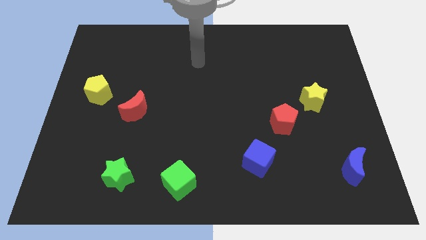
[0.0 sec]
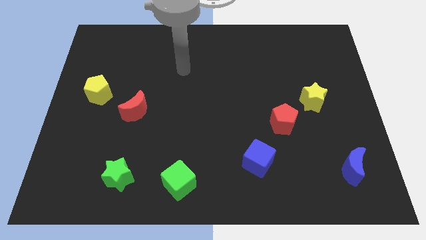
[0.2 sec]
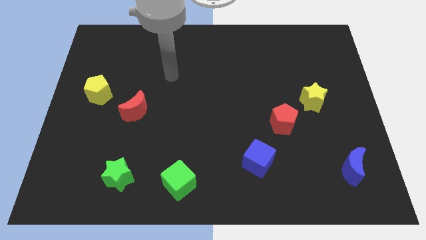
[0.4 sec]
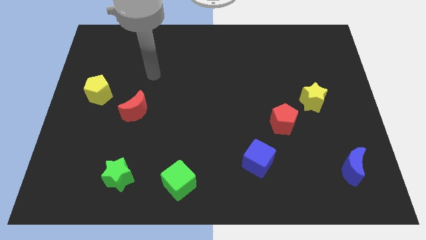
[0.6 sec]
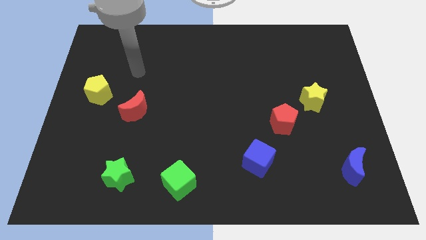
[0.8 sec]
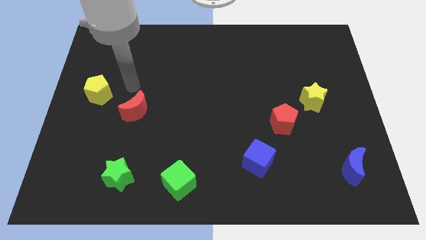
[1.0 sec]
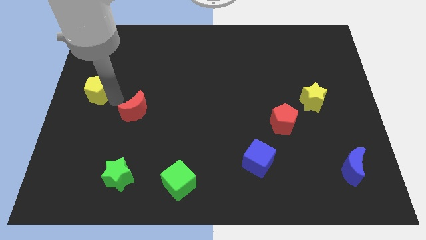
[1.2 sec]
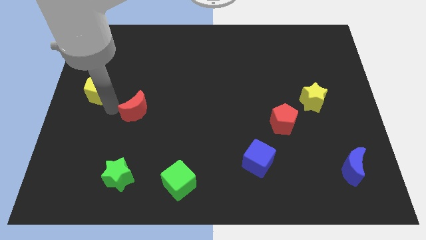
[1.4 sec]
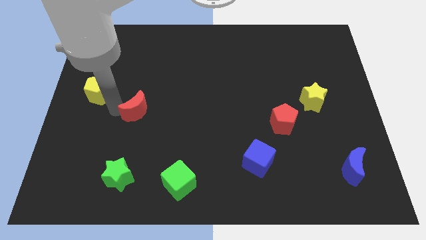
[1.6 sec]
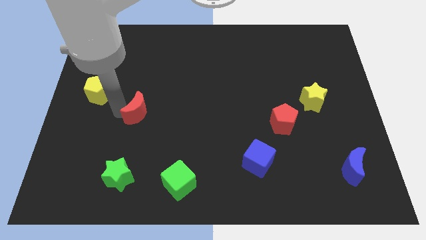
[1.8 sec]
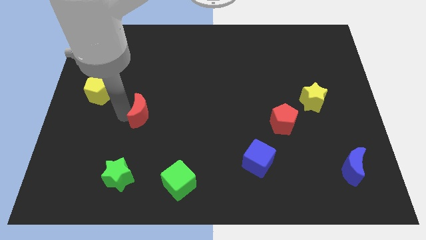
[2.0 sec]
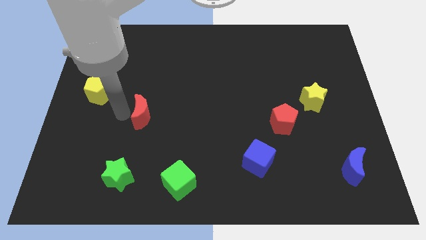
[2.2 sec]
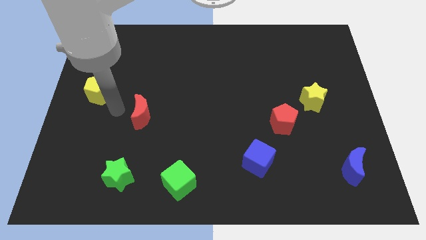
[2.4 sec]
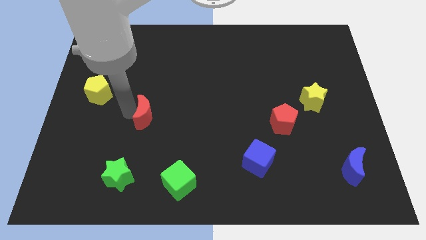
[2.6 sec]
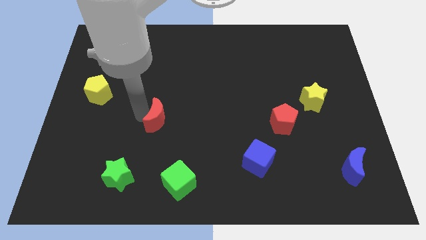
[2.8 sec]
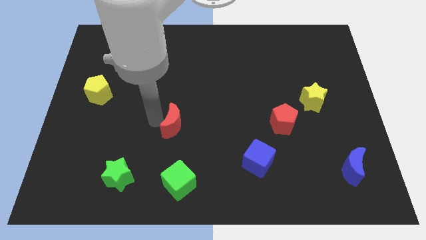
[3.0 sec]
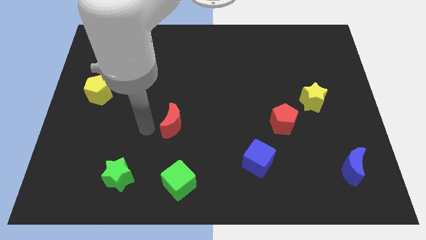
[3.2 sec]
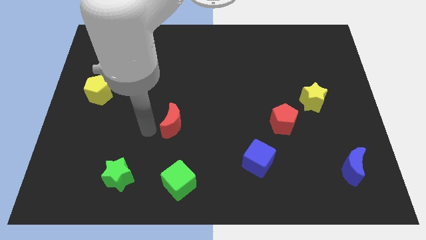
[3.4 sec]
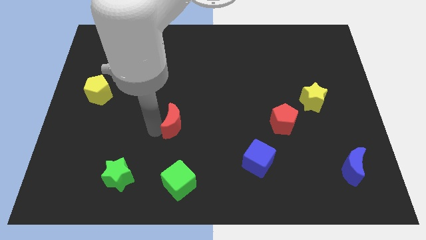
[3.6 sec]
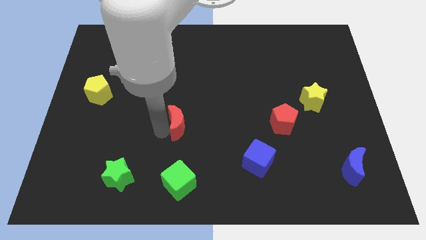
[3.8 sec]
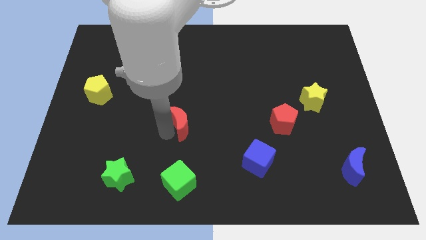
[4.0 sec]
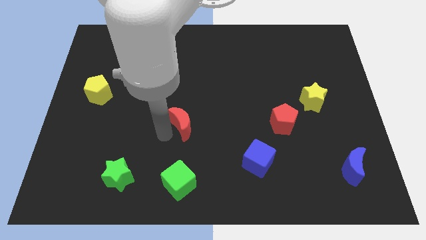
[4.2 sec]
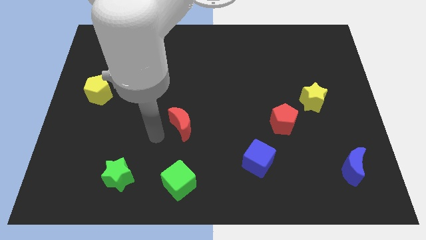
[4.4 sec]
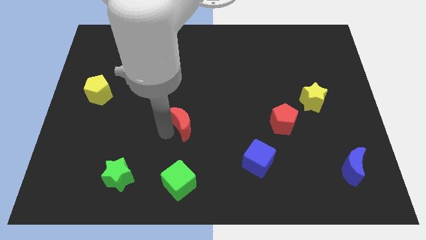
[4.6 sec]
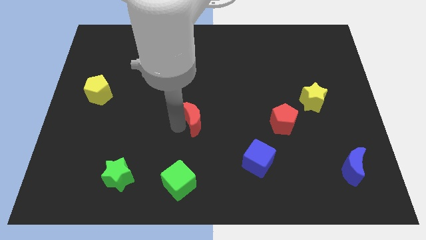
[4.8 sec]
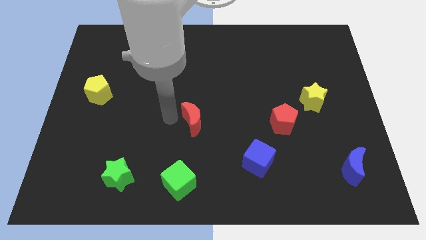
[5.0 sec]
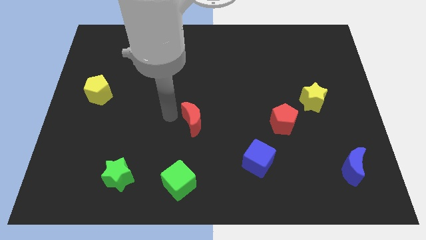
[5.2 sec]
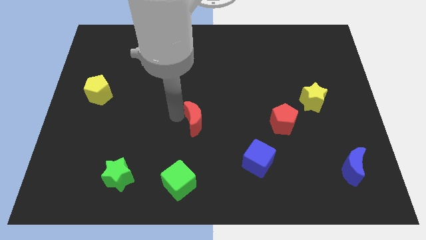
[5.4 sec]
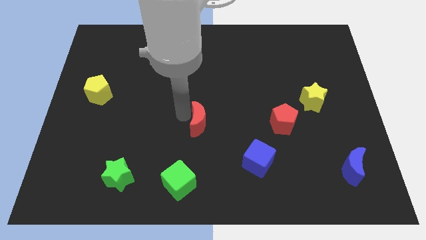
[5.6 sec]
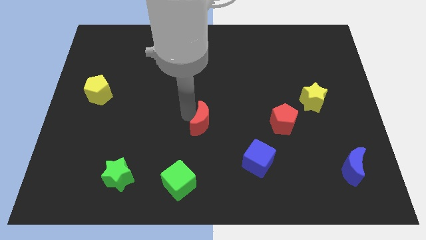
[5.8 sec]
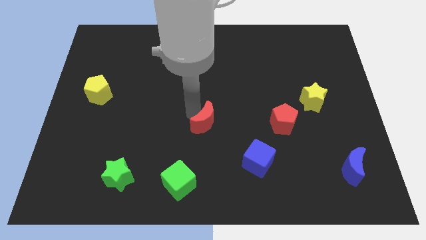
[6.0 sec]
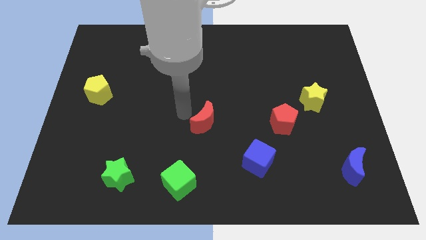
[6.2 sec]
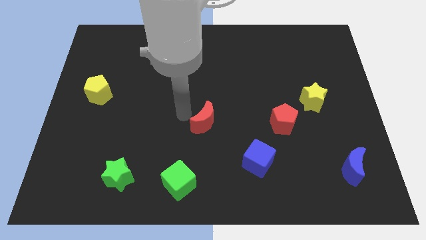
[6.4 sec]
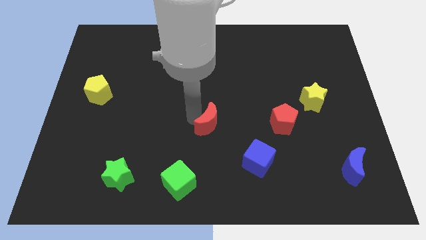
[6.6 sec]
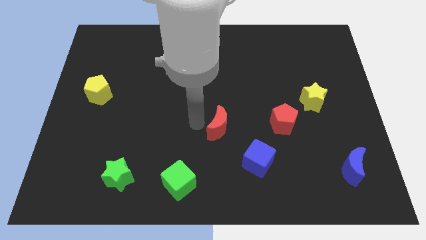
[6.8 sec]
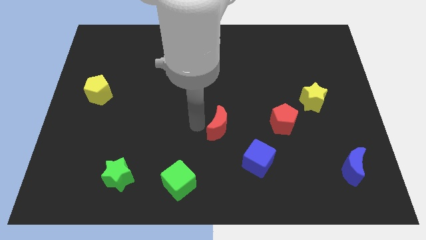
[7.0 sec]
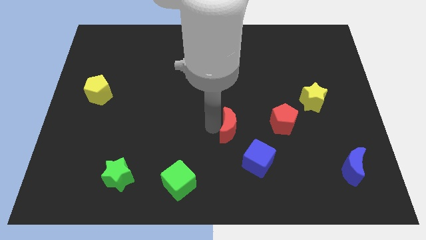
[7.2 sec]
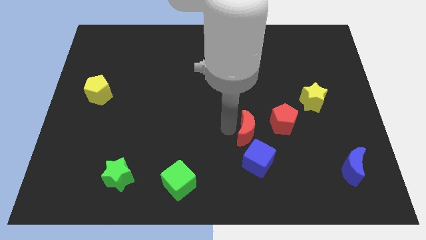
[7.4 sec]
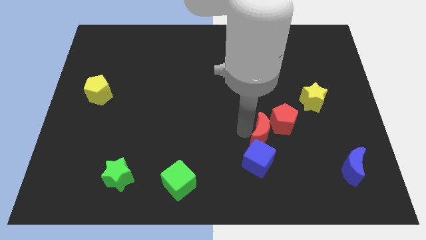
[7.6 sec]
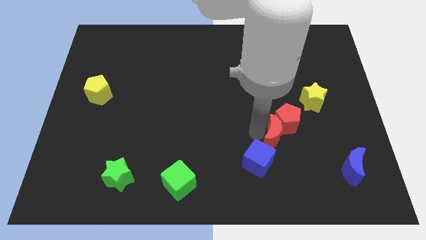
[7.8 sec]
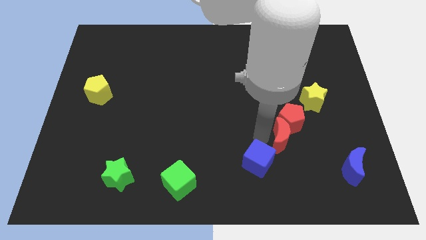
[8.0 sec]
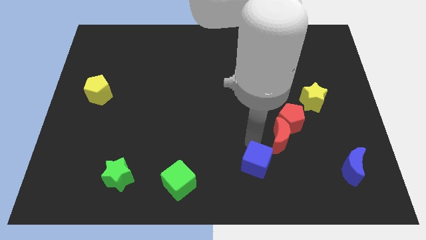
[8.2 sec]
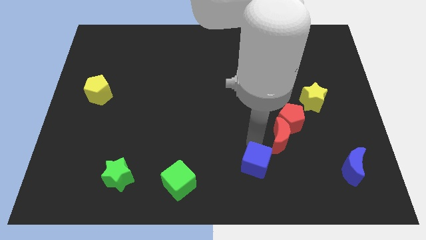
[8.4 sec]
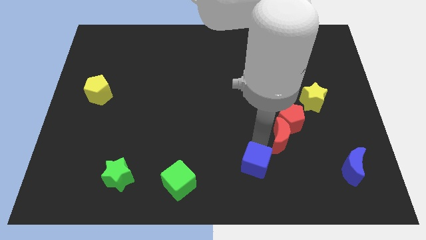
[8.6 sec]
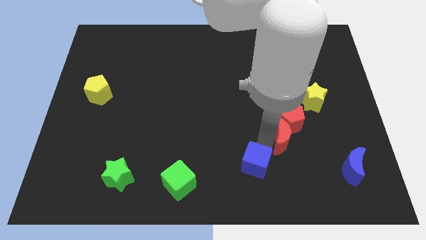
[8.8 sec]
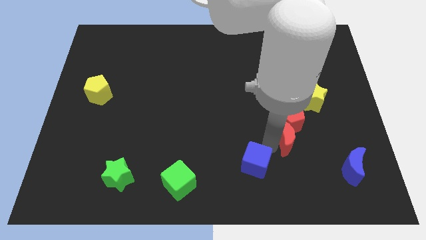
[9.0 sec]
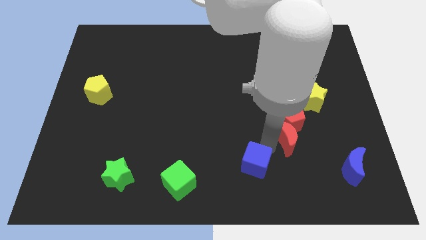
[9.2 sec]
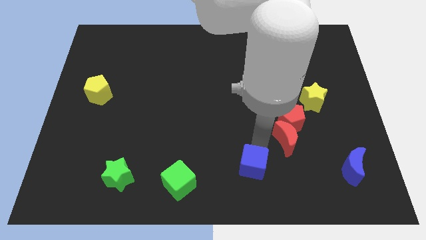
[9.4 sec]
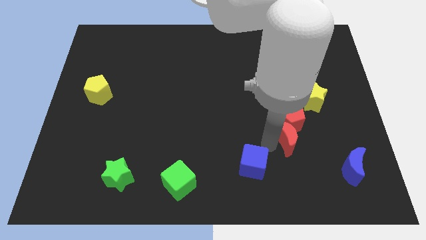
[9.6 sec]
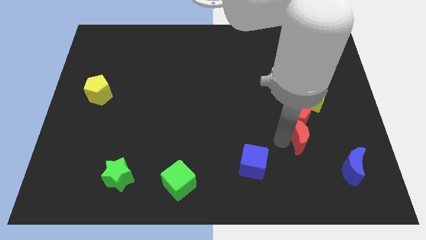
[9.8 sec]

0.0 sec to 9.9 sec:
slide the red moon to the bottom side of the yellow star

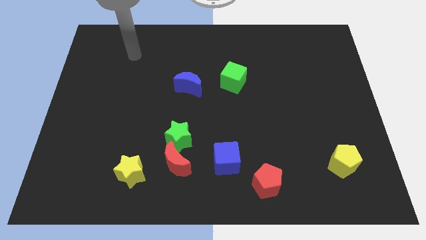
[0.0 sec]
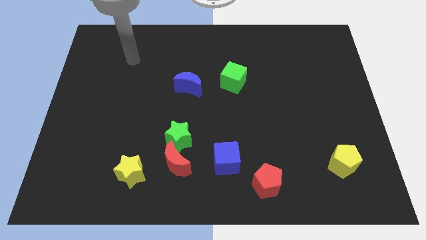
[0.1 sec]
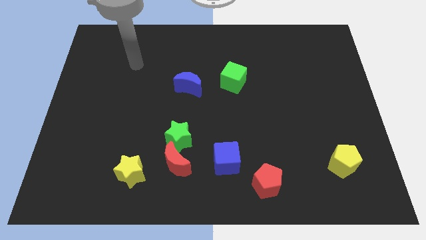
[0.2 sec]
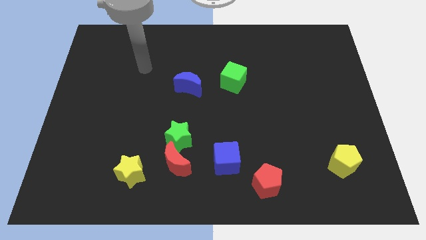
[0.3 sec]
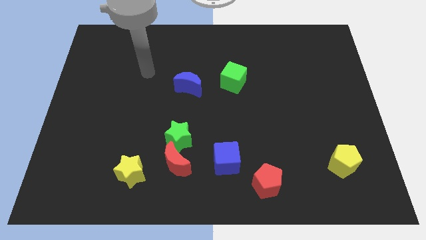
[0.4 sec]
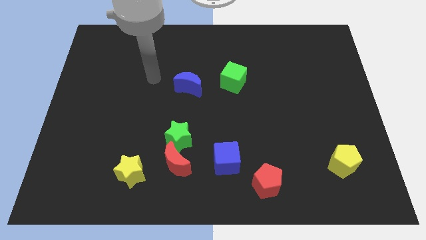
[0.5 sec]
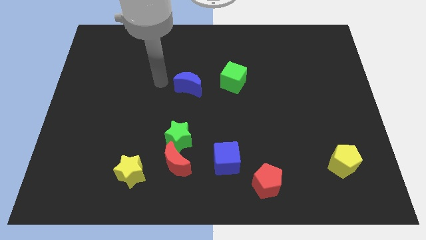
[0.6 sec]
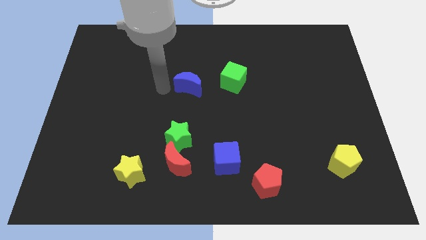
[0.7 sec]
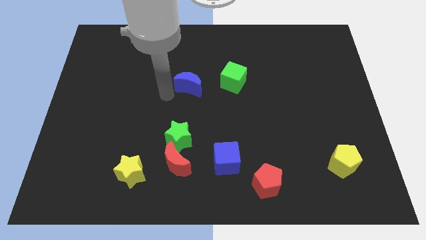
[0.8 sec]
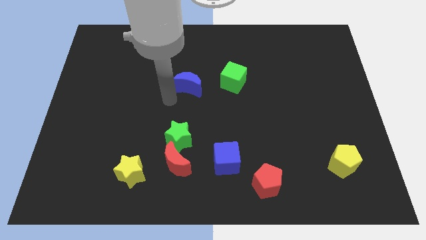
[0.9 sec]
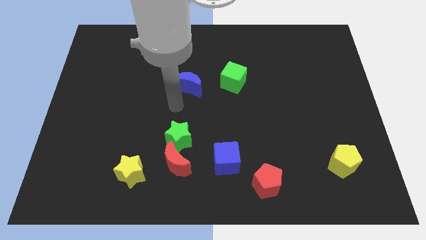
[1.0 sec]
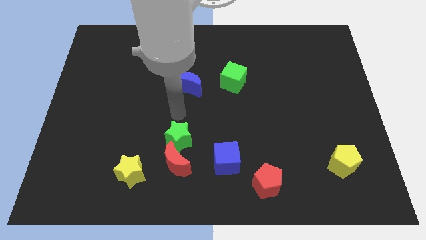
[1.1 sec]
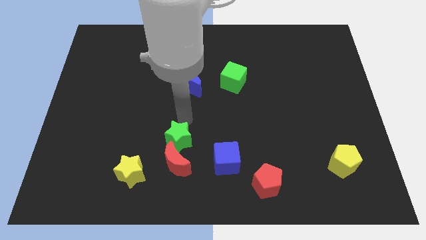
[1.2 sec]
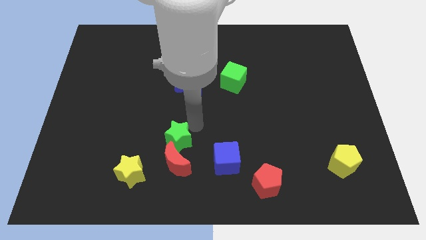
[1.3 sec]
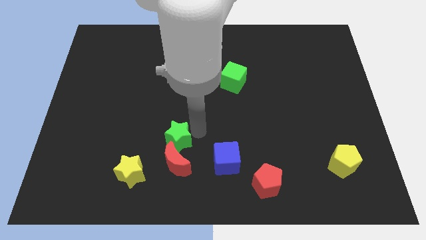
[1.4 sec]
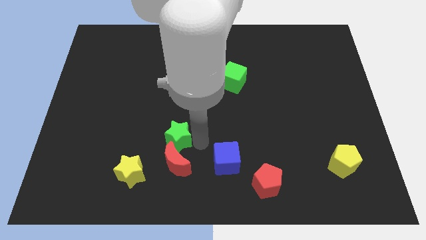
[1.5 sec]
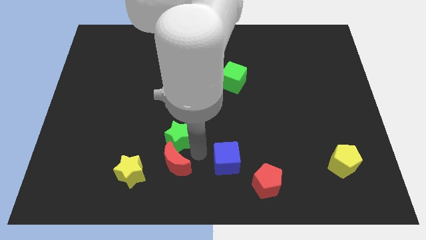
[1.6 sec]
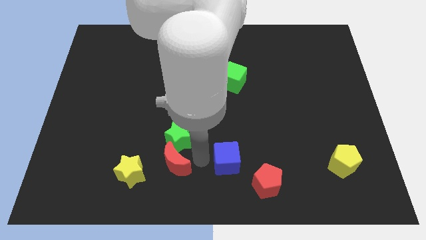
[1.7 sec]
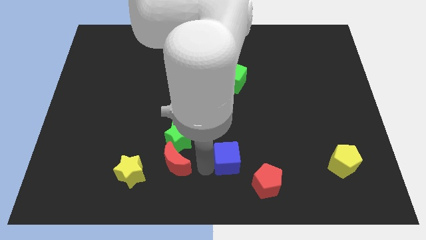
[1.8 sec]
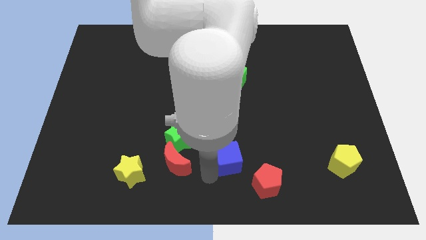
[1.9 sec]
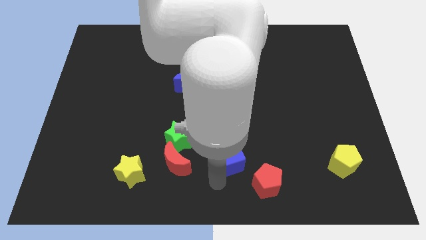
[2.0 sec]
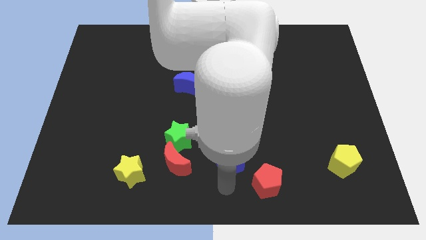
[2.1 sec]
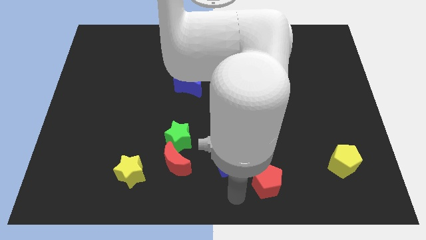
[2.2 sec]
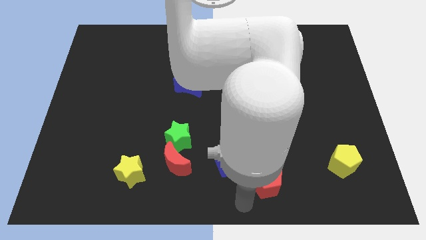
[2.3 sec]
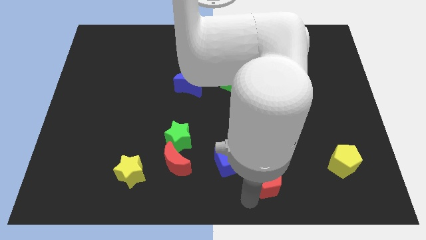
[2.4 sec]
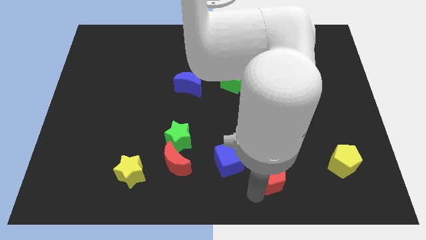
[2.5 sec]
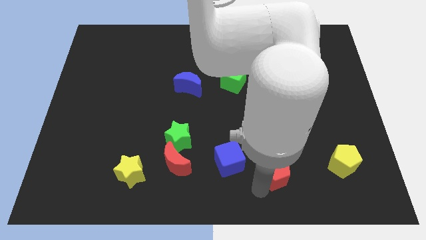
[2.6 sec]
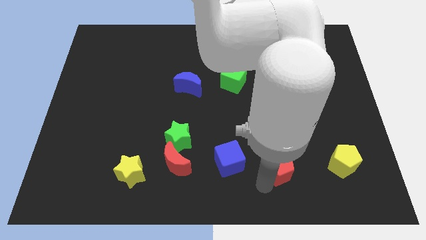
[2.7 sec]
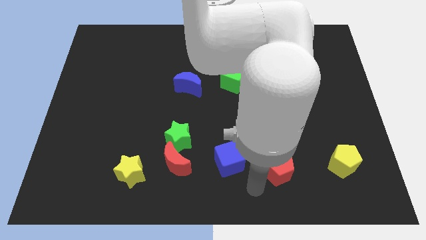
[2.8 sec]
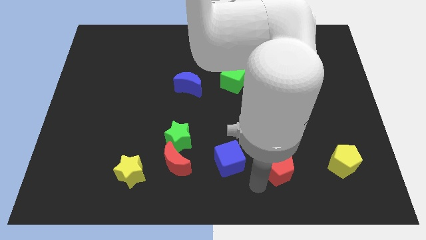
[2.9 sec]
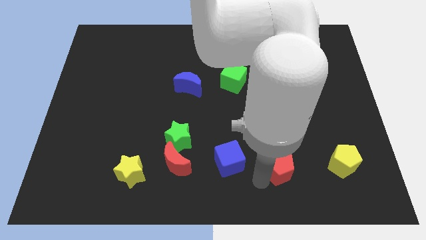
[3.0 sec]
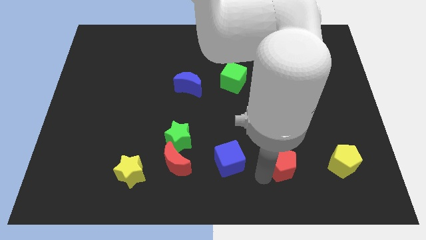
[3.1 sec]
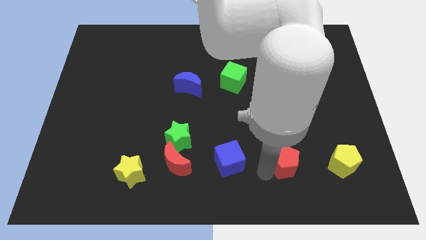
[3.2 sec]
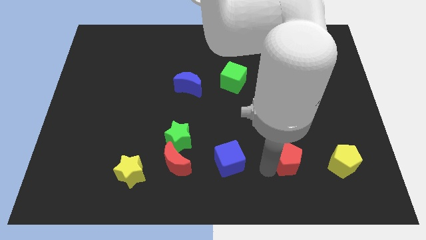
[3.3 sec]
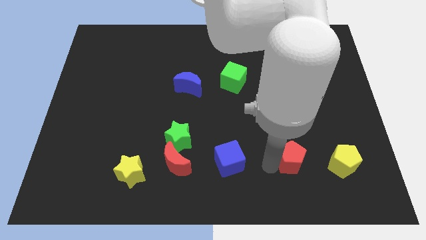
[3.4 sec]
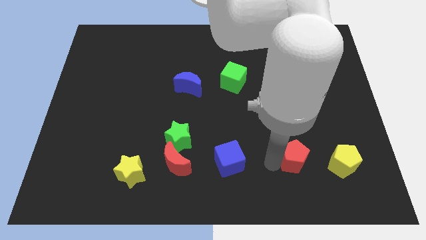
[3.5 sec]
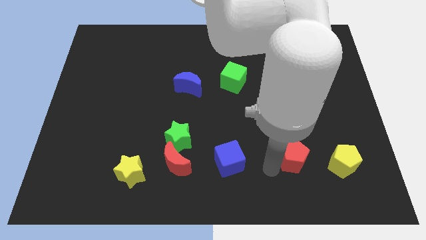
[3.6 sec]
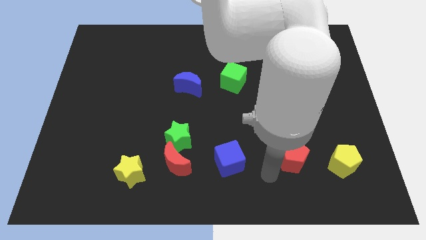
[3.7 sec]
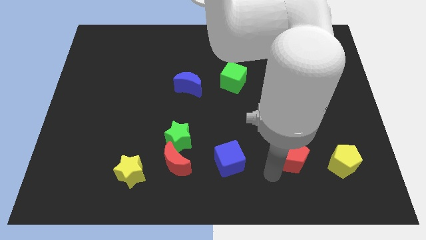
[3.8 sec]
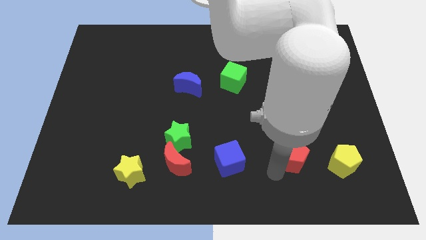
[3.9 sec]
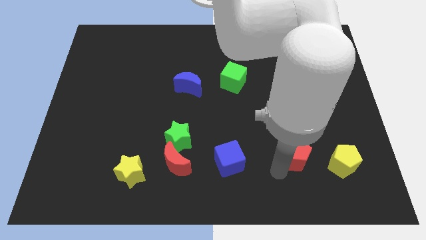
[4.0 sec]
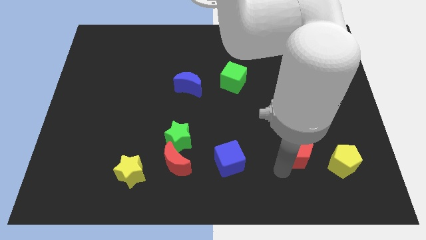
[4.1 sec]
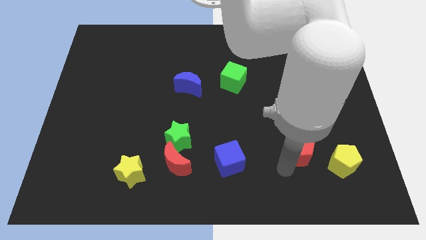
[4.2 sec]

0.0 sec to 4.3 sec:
move the red pentagon to the top left side of the yellow pentagon
